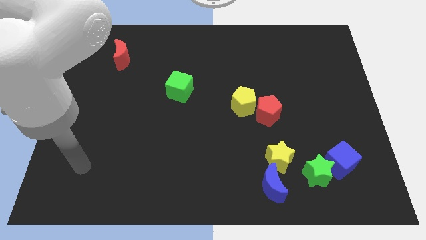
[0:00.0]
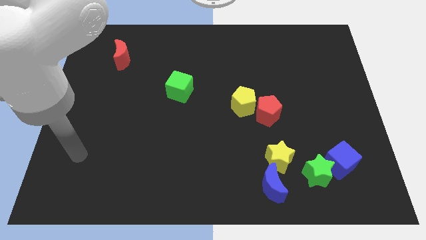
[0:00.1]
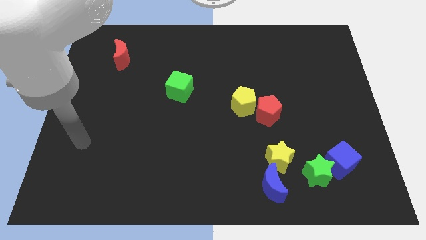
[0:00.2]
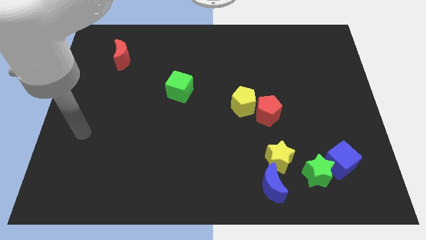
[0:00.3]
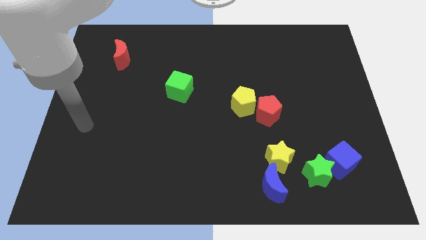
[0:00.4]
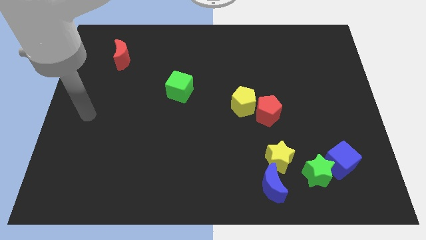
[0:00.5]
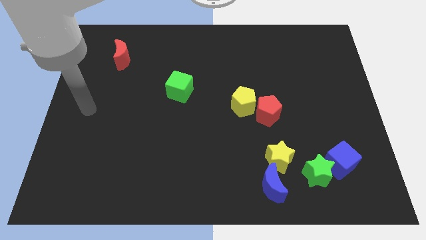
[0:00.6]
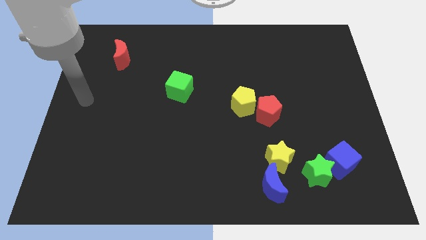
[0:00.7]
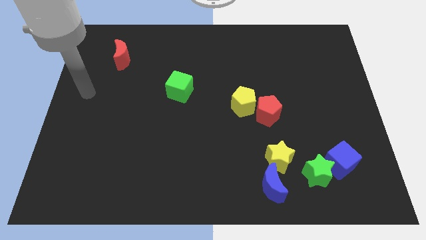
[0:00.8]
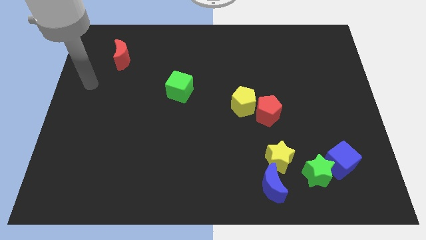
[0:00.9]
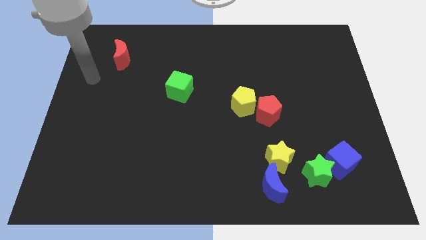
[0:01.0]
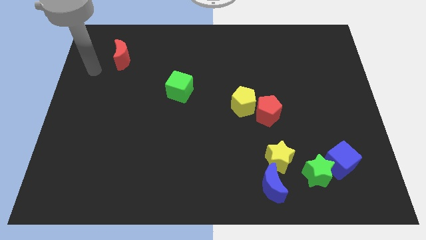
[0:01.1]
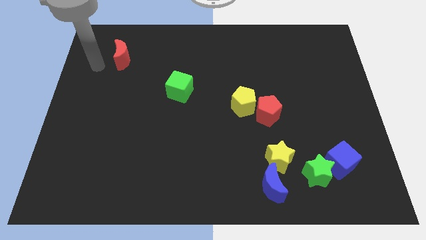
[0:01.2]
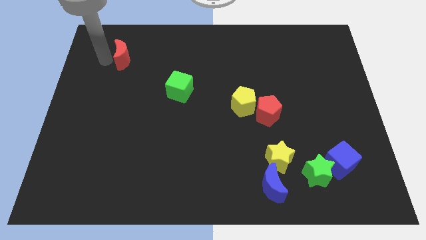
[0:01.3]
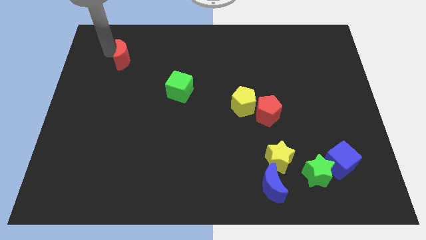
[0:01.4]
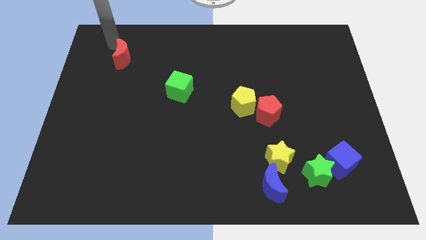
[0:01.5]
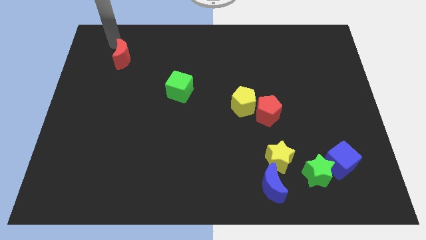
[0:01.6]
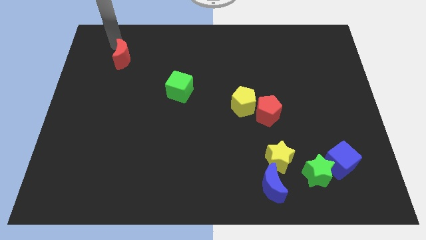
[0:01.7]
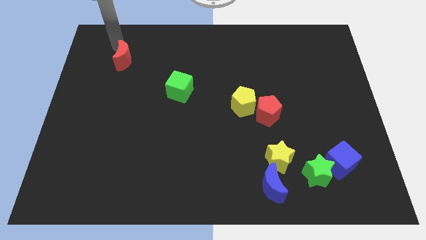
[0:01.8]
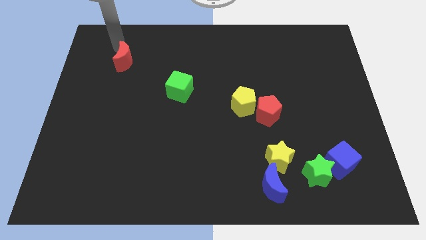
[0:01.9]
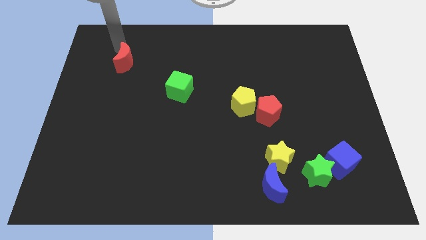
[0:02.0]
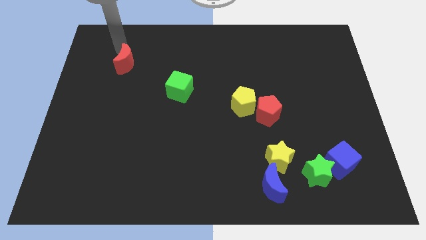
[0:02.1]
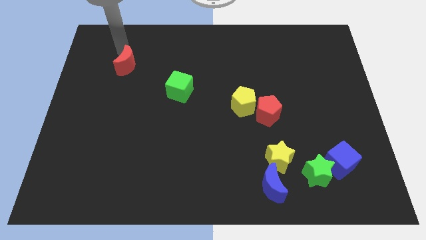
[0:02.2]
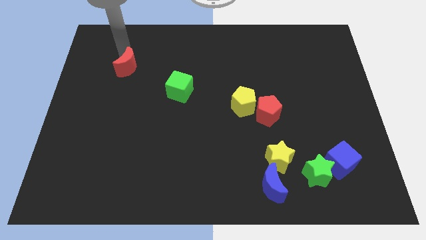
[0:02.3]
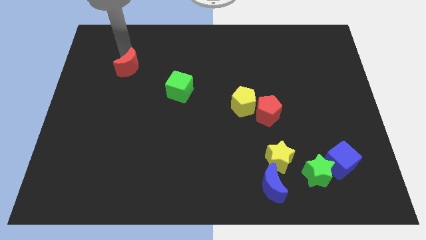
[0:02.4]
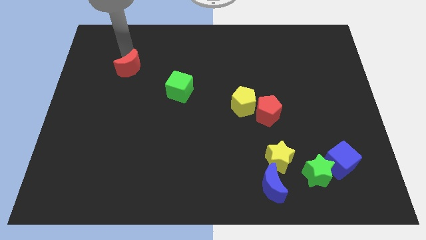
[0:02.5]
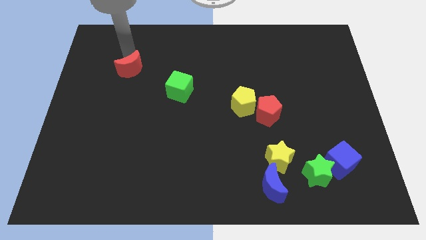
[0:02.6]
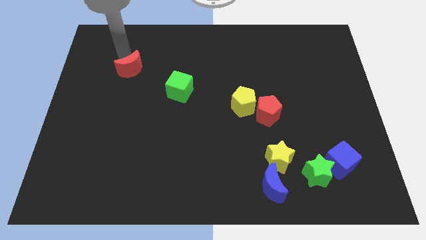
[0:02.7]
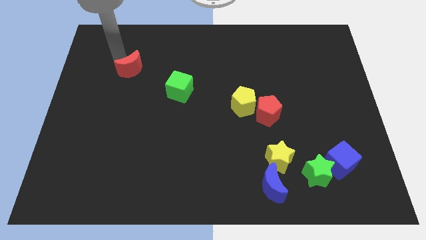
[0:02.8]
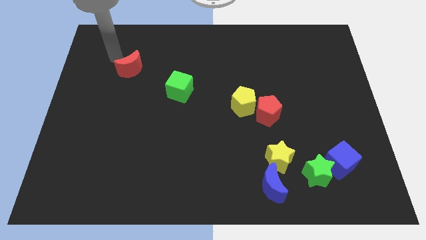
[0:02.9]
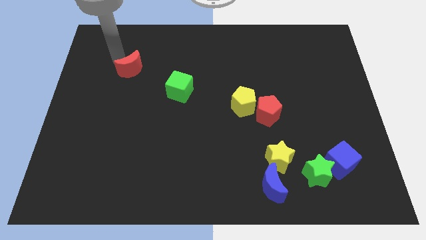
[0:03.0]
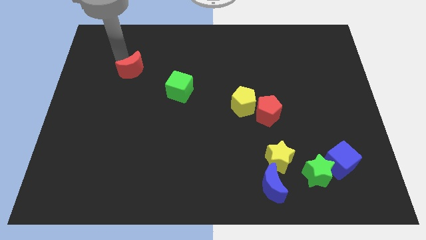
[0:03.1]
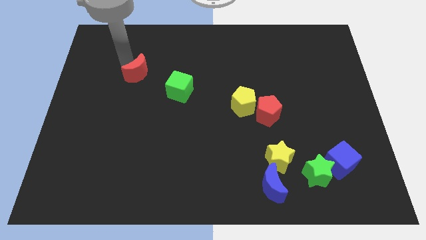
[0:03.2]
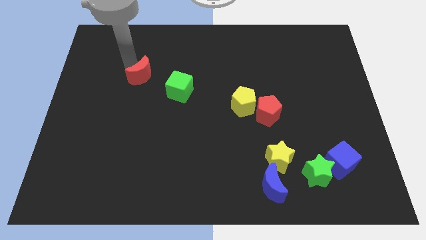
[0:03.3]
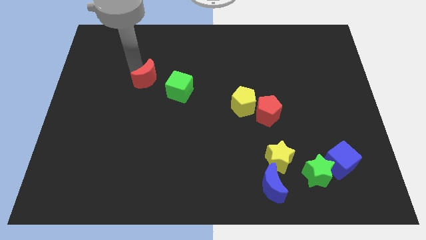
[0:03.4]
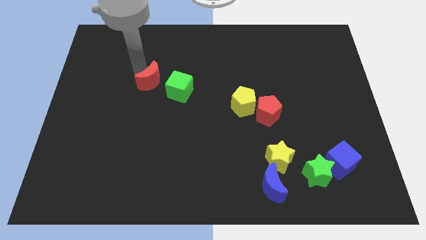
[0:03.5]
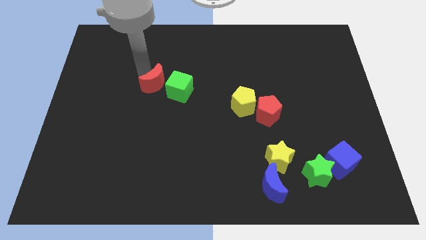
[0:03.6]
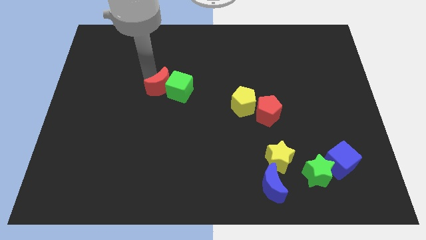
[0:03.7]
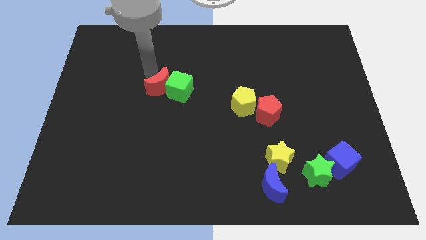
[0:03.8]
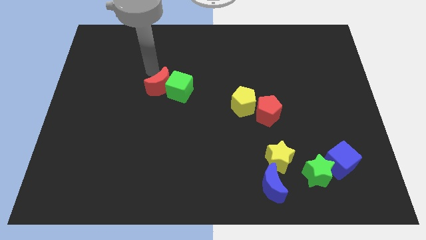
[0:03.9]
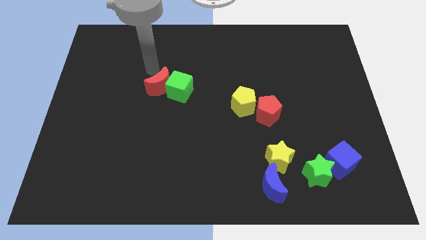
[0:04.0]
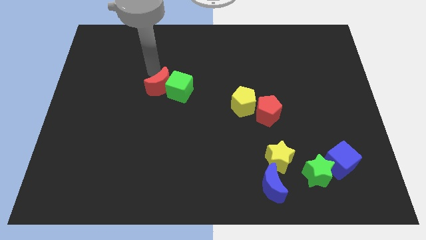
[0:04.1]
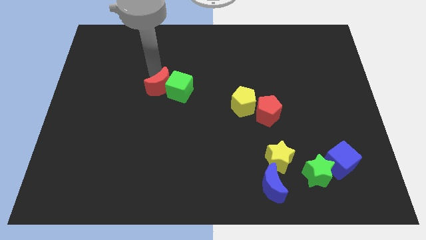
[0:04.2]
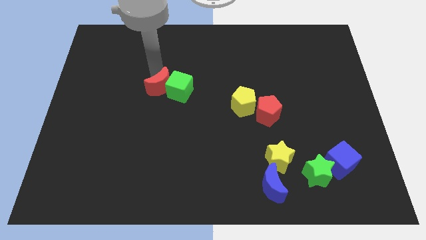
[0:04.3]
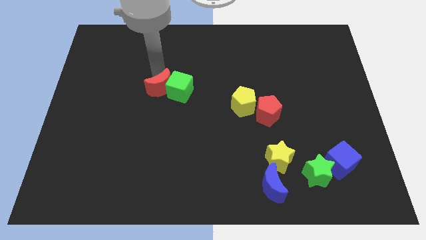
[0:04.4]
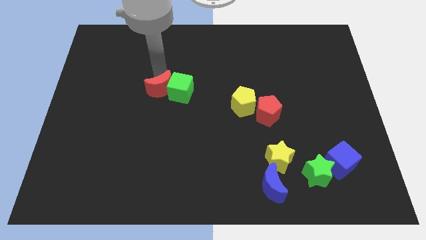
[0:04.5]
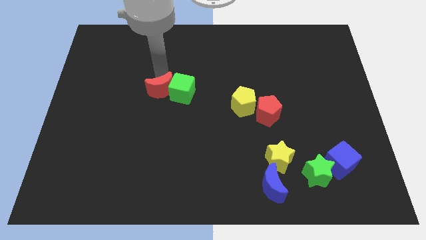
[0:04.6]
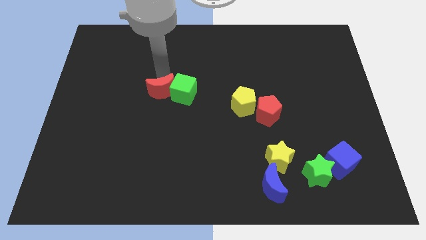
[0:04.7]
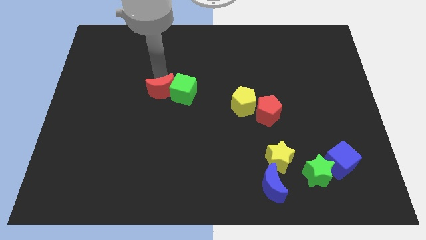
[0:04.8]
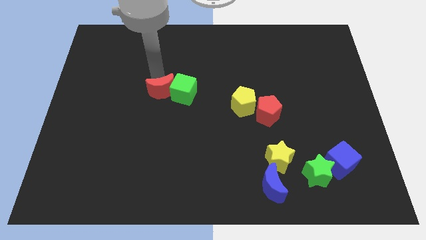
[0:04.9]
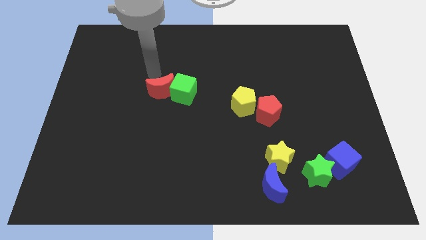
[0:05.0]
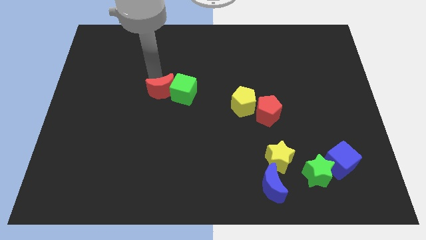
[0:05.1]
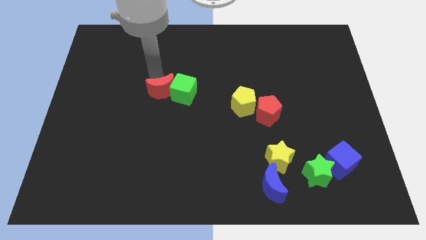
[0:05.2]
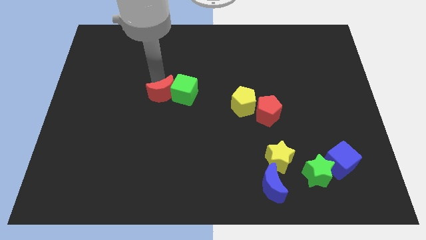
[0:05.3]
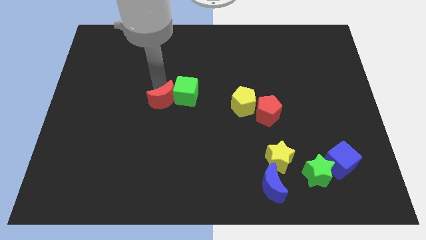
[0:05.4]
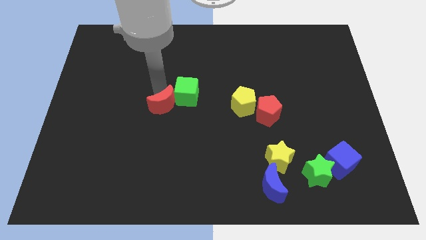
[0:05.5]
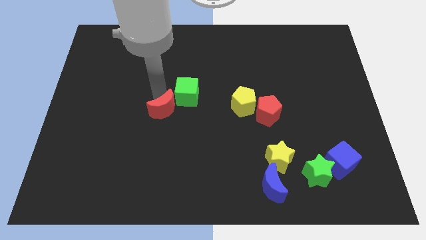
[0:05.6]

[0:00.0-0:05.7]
move the red moon downwards and right diagonally

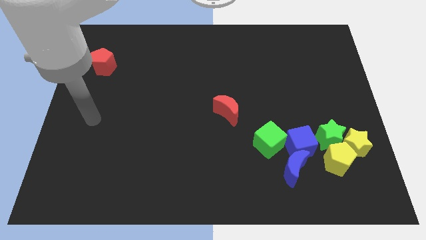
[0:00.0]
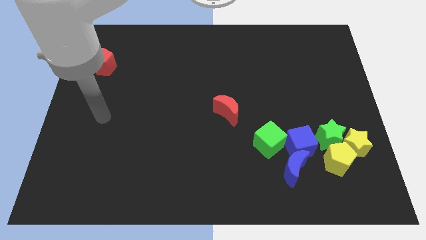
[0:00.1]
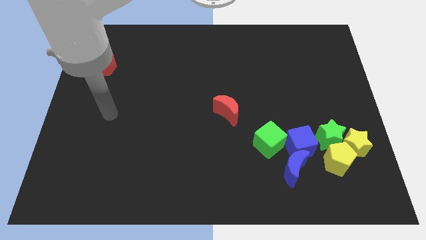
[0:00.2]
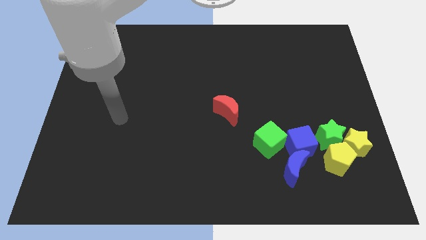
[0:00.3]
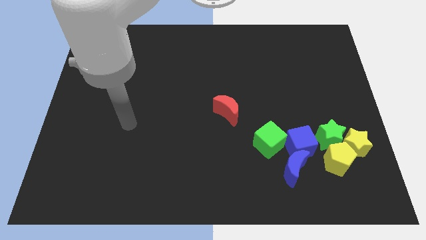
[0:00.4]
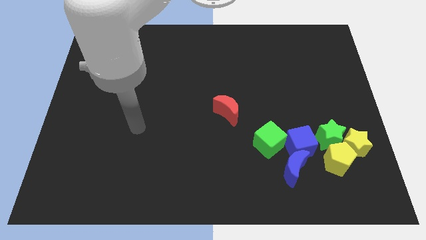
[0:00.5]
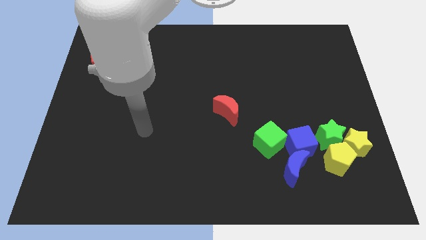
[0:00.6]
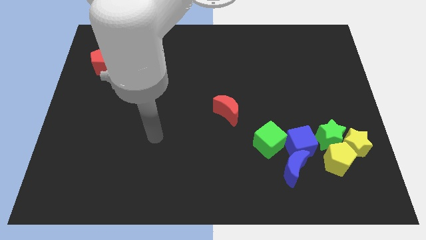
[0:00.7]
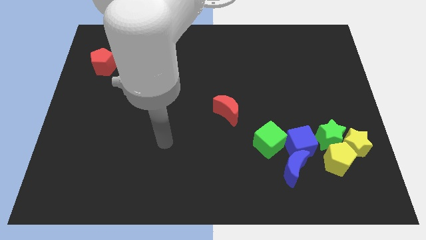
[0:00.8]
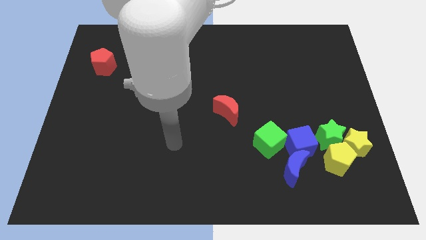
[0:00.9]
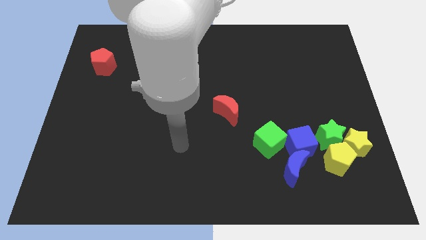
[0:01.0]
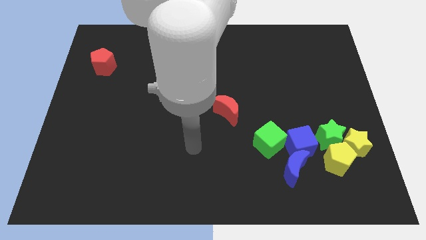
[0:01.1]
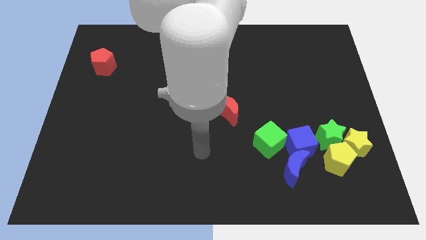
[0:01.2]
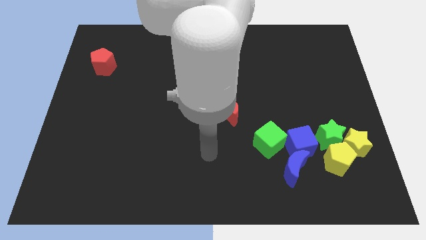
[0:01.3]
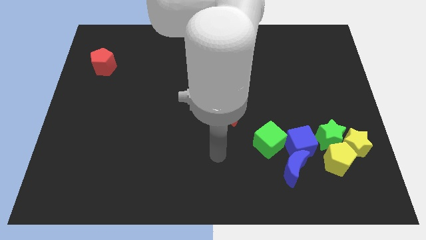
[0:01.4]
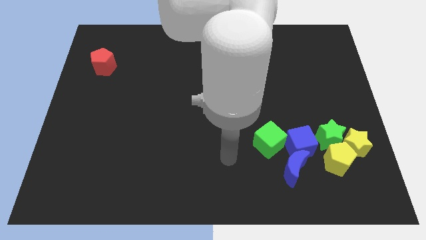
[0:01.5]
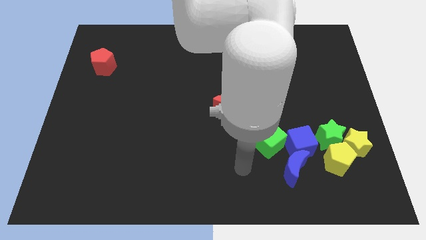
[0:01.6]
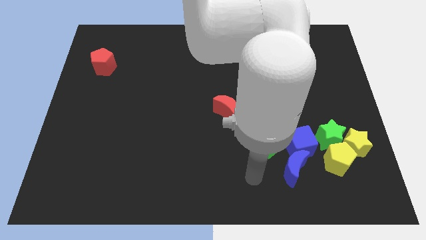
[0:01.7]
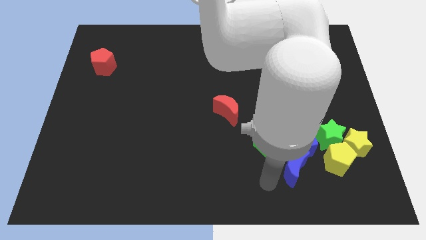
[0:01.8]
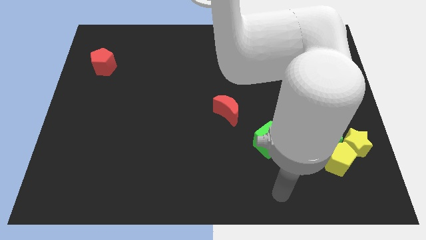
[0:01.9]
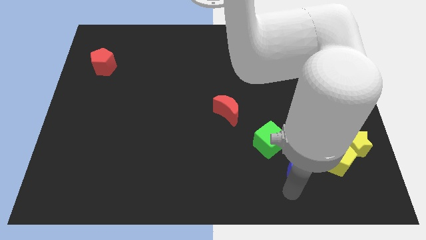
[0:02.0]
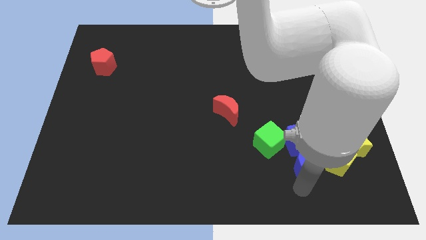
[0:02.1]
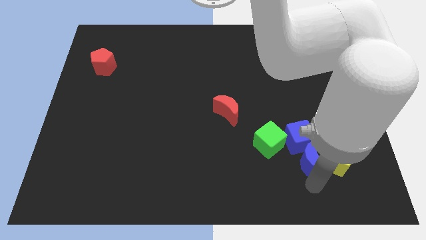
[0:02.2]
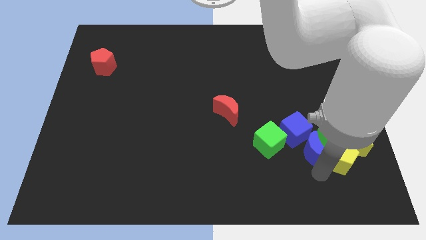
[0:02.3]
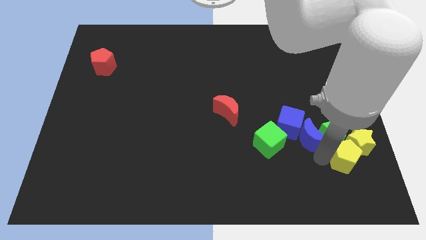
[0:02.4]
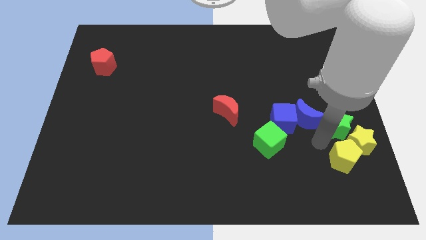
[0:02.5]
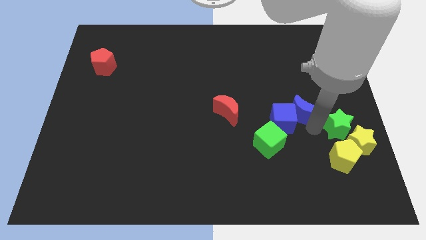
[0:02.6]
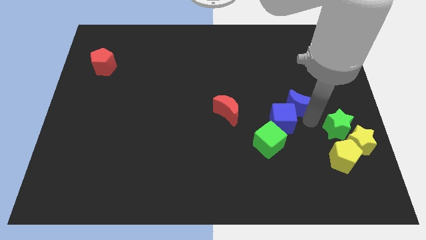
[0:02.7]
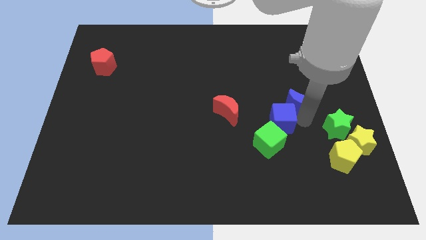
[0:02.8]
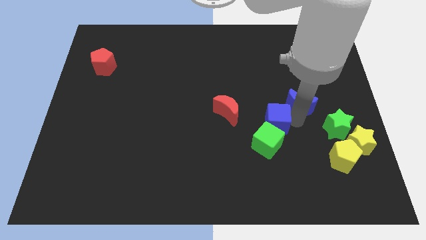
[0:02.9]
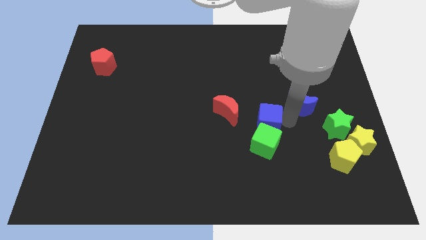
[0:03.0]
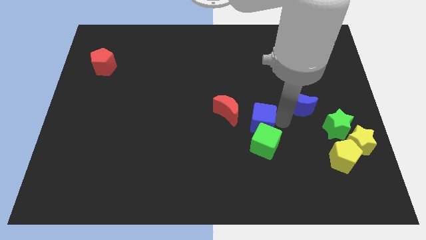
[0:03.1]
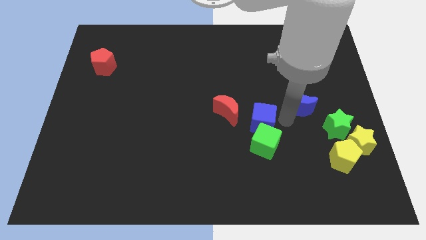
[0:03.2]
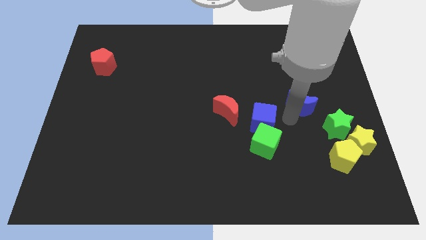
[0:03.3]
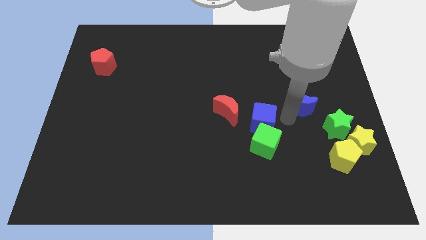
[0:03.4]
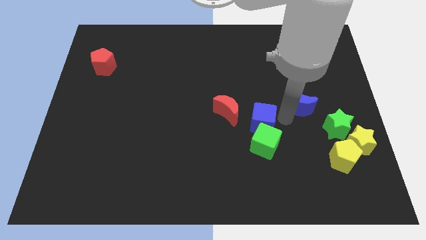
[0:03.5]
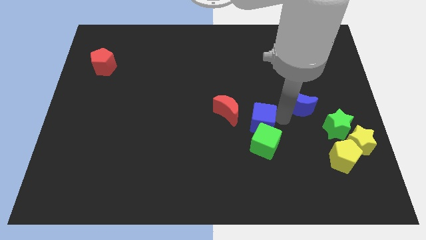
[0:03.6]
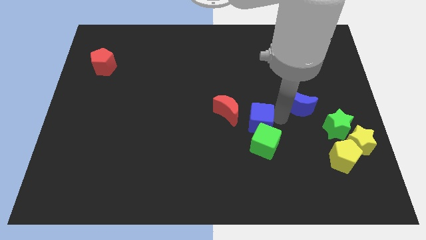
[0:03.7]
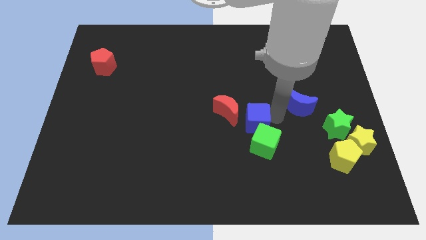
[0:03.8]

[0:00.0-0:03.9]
slide the blue cube a little bit left
